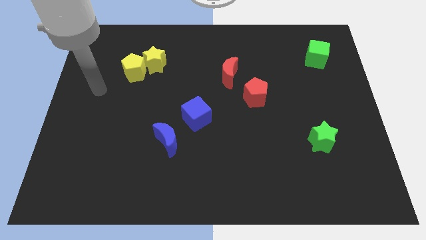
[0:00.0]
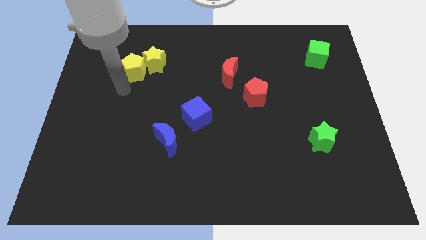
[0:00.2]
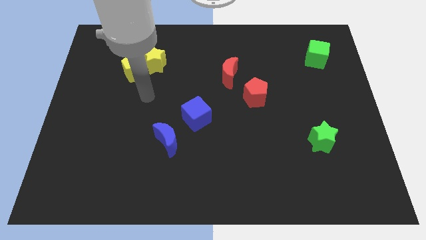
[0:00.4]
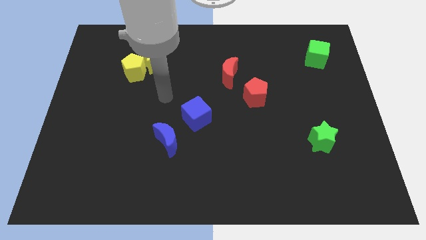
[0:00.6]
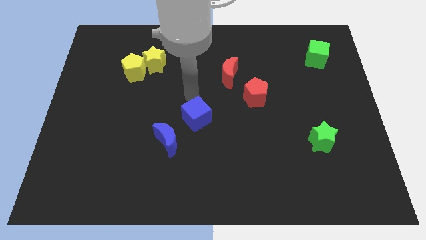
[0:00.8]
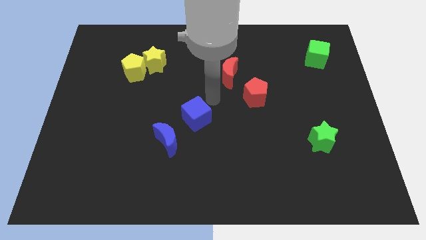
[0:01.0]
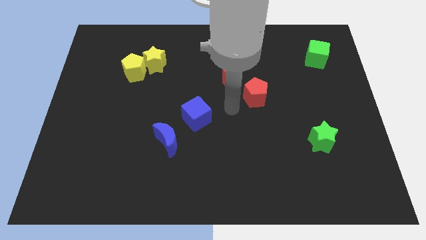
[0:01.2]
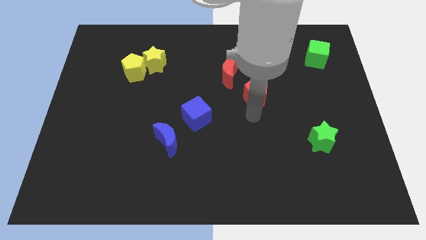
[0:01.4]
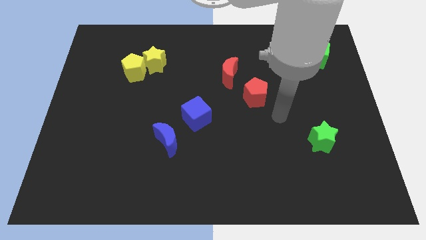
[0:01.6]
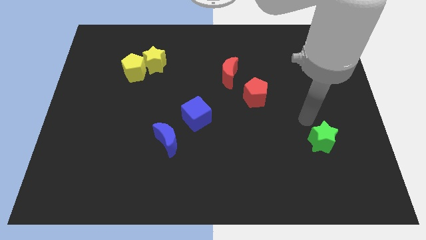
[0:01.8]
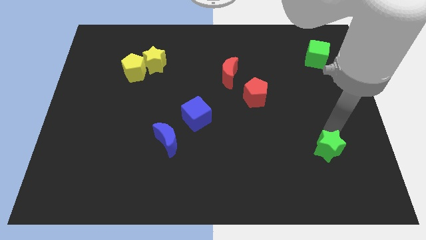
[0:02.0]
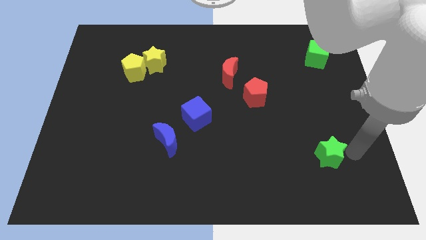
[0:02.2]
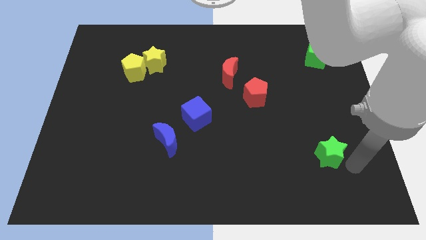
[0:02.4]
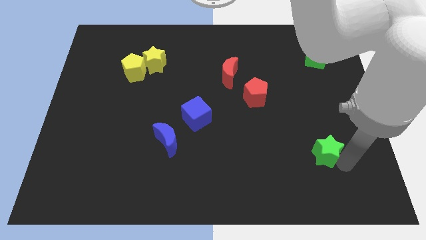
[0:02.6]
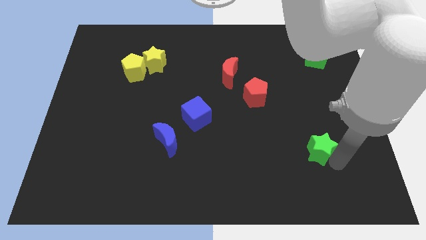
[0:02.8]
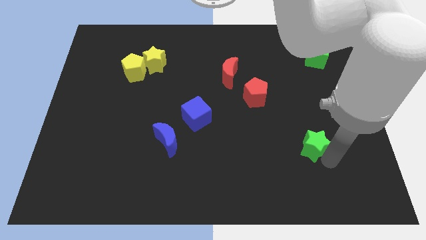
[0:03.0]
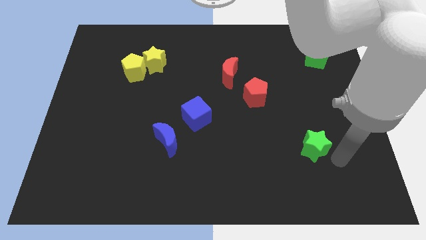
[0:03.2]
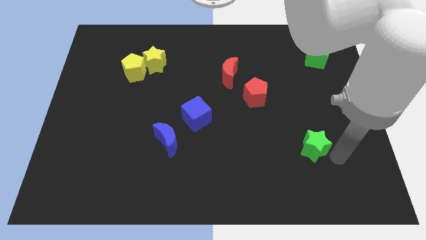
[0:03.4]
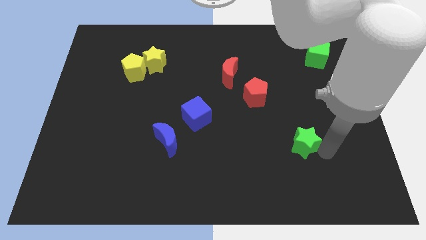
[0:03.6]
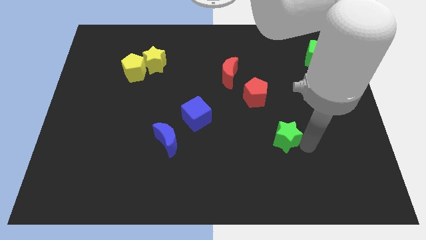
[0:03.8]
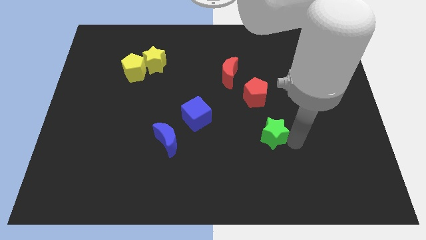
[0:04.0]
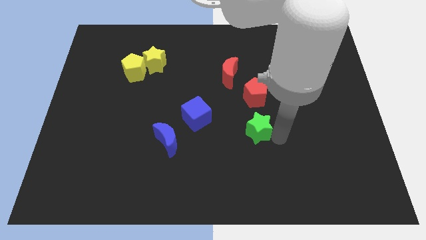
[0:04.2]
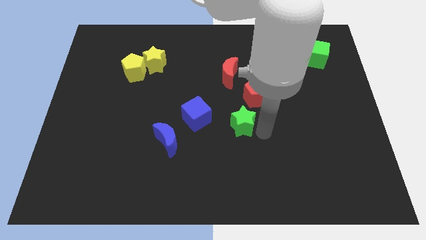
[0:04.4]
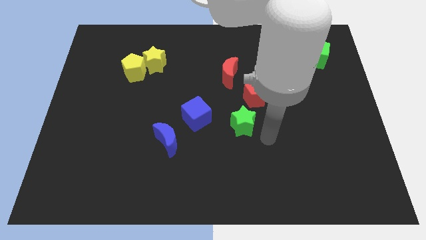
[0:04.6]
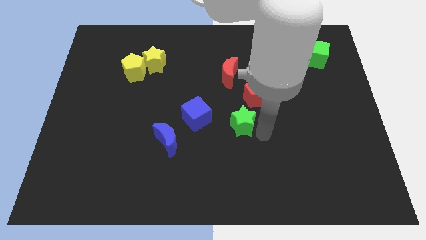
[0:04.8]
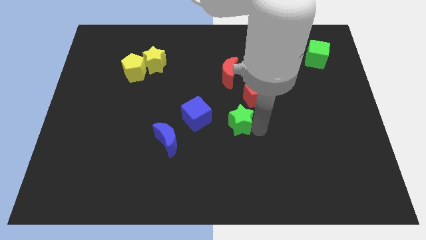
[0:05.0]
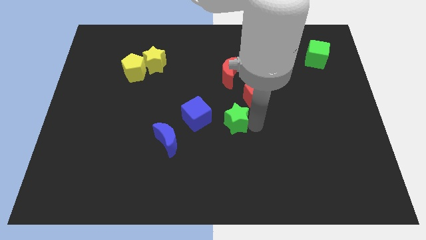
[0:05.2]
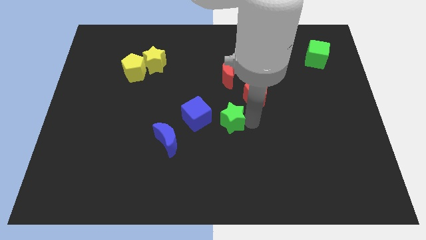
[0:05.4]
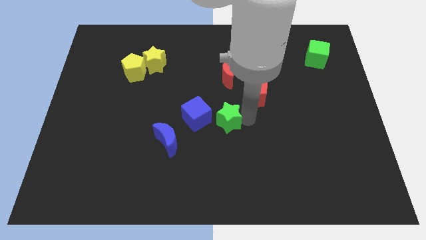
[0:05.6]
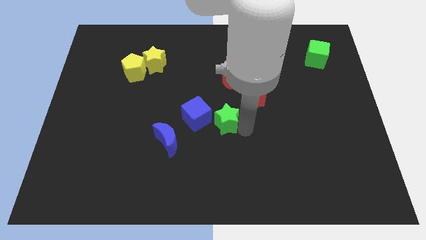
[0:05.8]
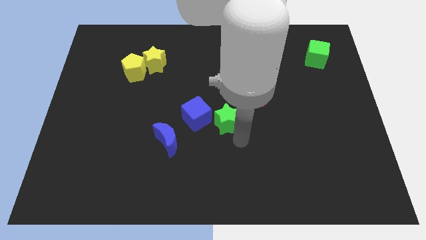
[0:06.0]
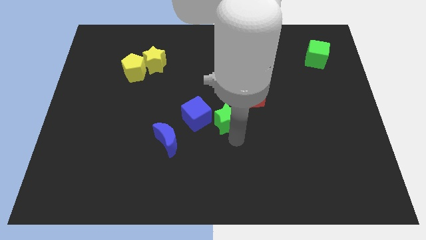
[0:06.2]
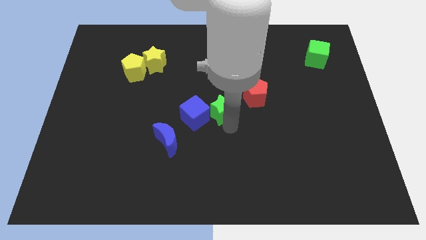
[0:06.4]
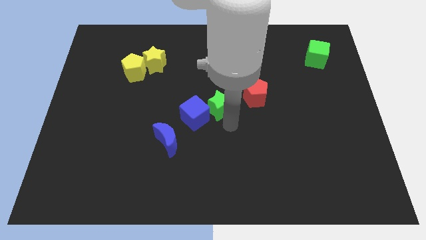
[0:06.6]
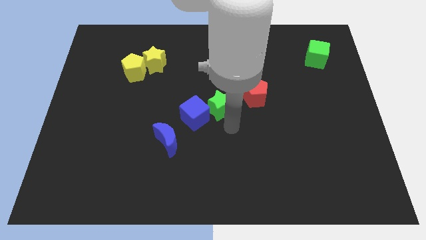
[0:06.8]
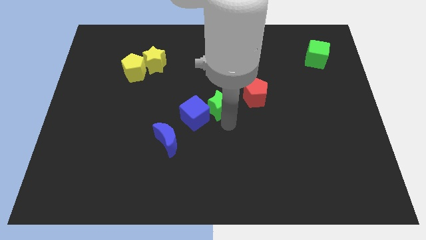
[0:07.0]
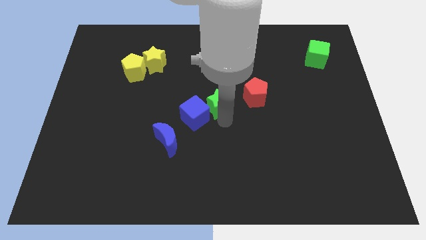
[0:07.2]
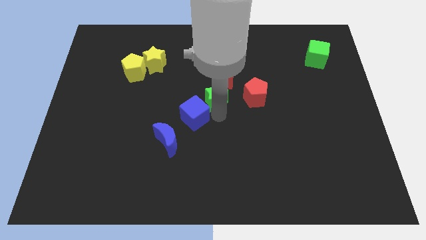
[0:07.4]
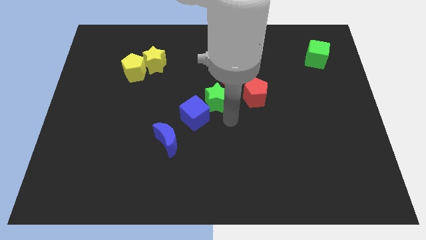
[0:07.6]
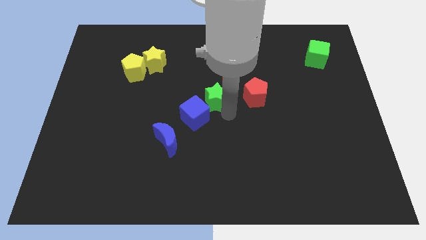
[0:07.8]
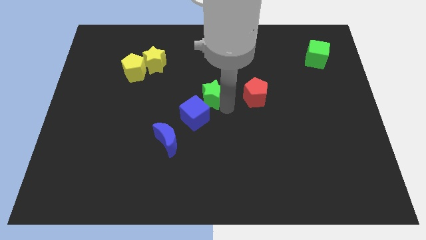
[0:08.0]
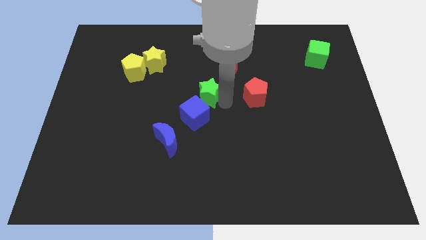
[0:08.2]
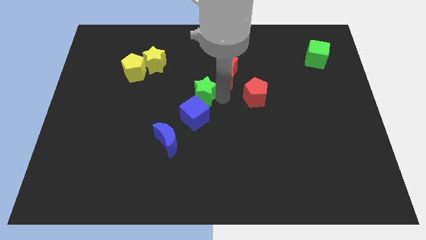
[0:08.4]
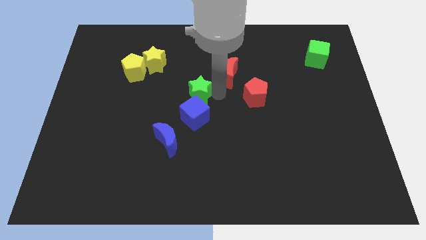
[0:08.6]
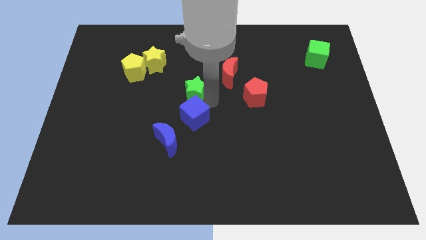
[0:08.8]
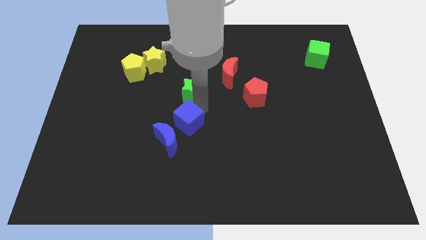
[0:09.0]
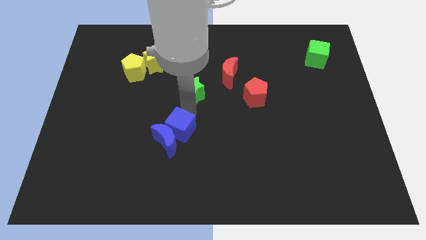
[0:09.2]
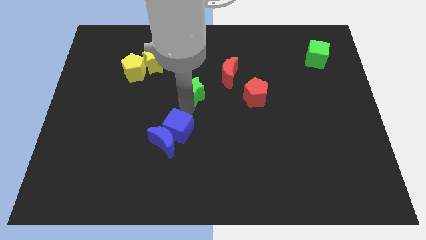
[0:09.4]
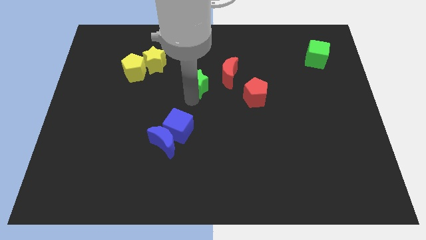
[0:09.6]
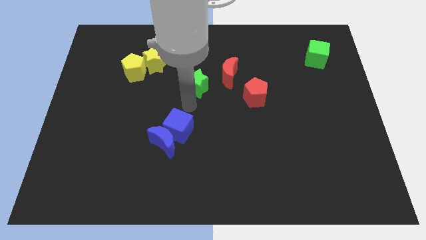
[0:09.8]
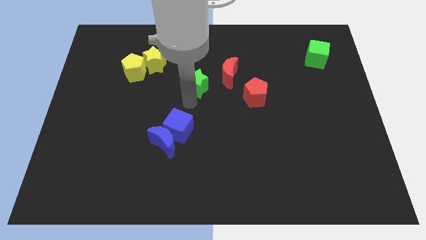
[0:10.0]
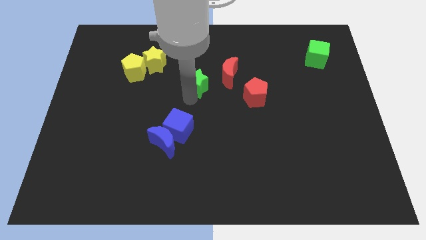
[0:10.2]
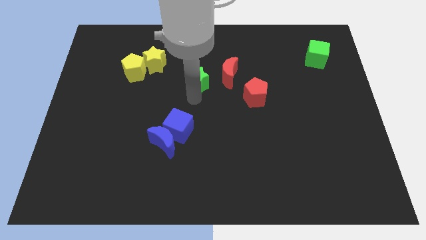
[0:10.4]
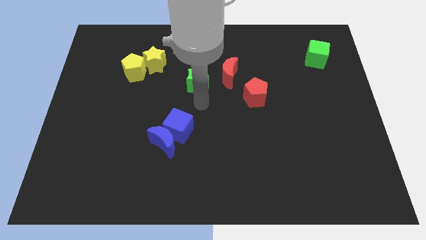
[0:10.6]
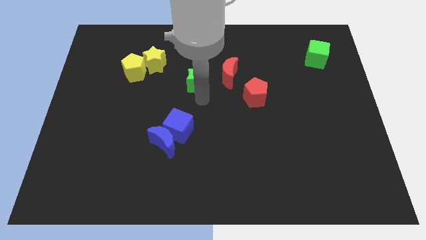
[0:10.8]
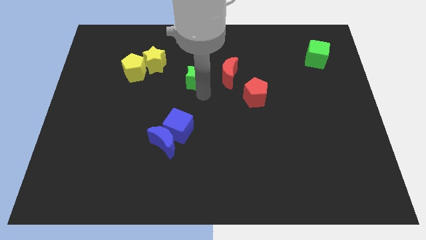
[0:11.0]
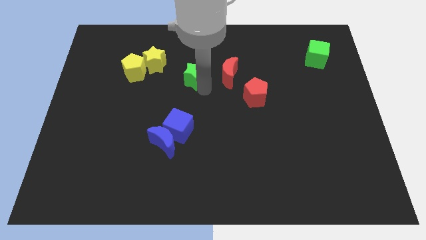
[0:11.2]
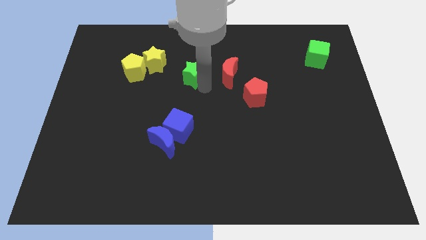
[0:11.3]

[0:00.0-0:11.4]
put the green star to the right of the yellow star
